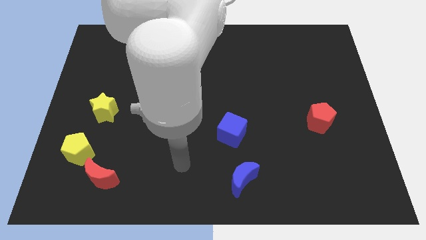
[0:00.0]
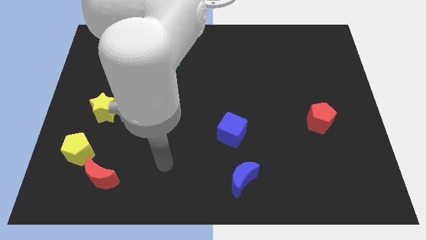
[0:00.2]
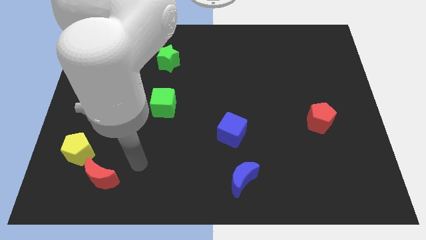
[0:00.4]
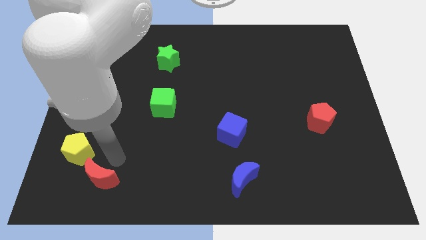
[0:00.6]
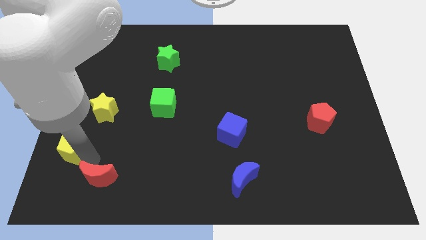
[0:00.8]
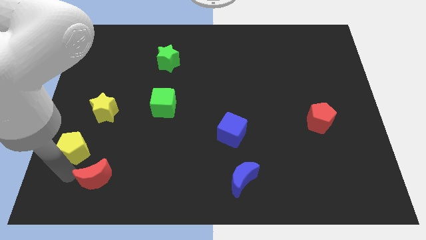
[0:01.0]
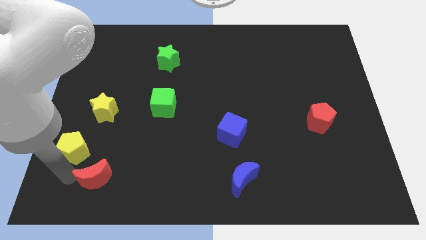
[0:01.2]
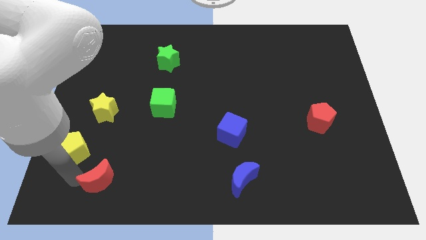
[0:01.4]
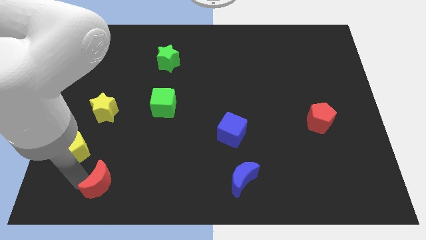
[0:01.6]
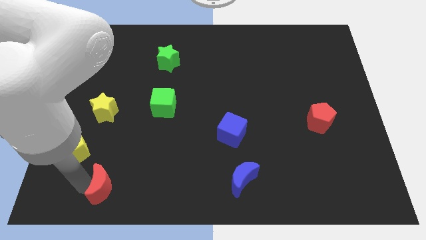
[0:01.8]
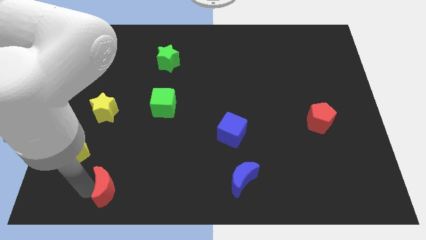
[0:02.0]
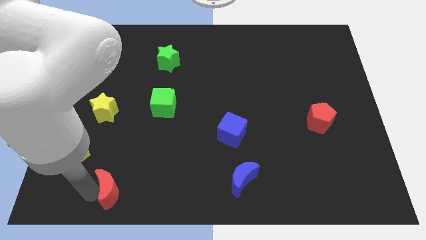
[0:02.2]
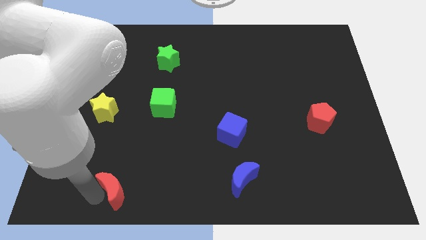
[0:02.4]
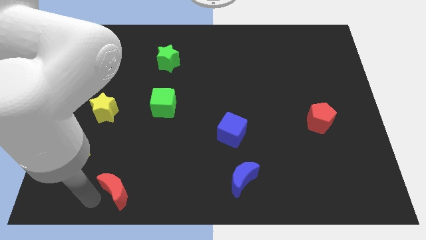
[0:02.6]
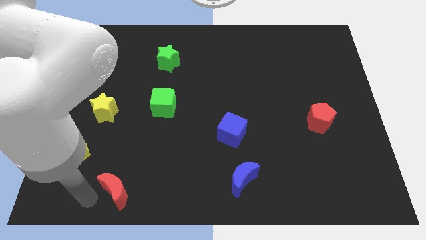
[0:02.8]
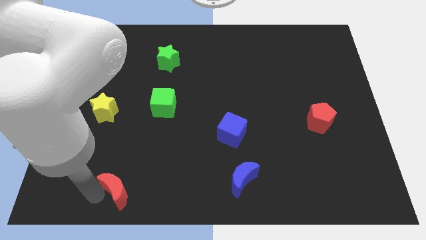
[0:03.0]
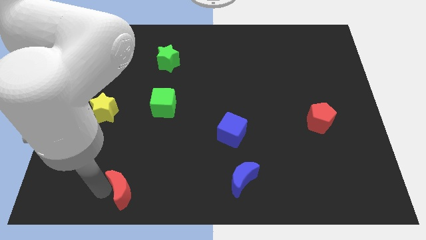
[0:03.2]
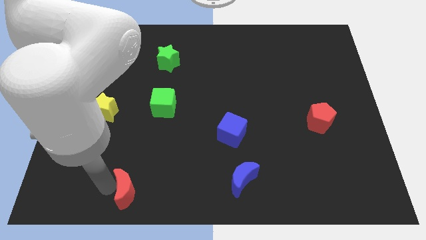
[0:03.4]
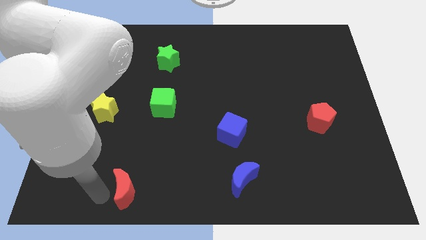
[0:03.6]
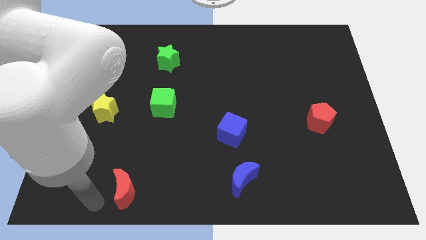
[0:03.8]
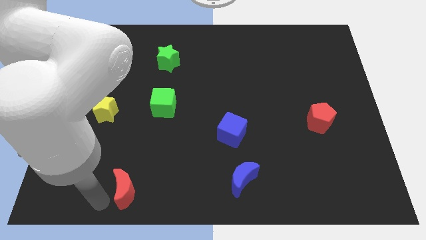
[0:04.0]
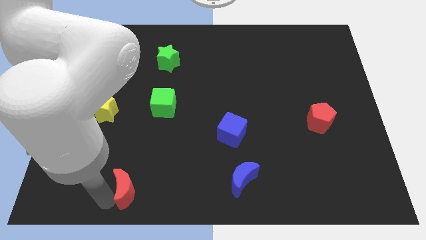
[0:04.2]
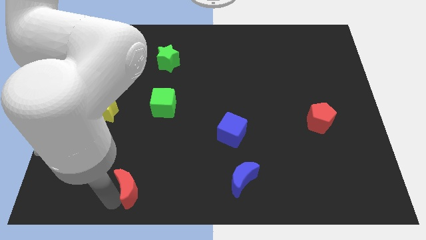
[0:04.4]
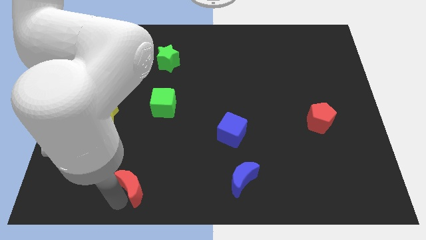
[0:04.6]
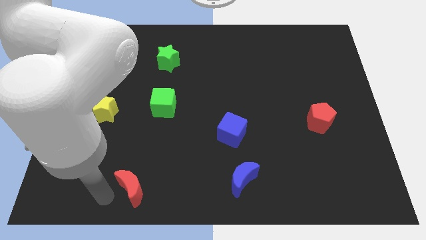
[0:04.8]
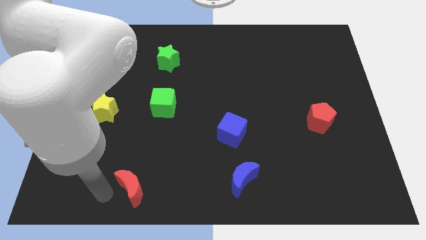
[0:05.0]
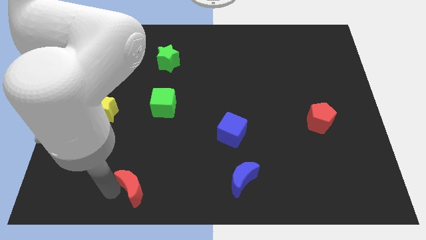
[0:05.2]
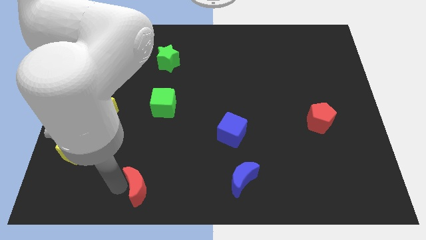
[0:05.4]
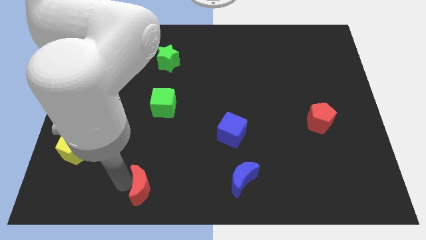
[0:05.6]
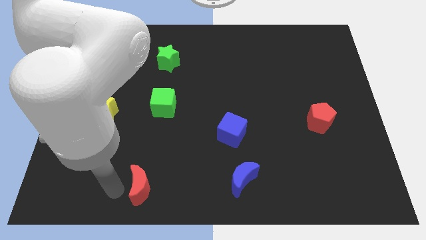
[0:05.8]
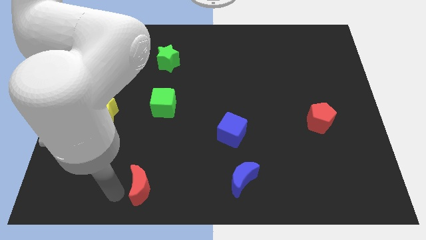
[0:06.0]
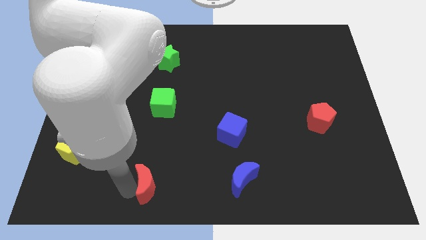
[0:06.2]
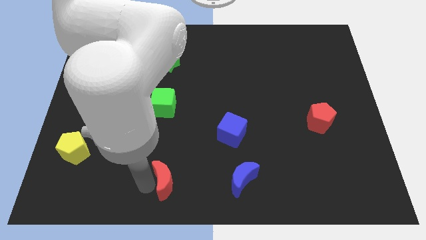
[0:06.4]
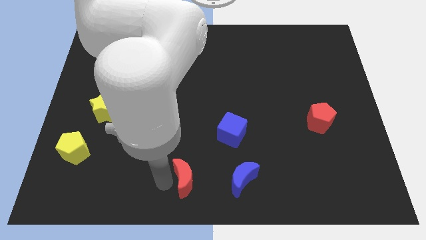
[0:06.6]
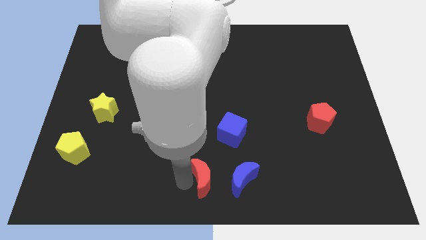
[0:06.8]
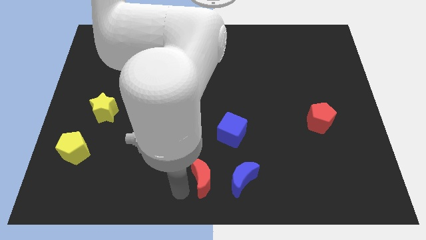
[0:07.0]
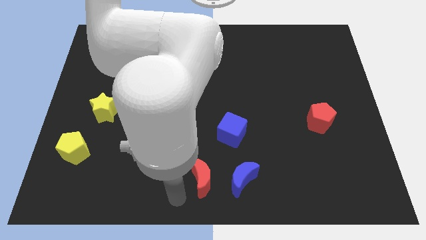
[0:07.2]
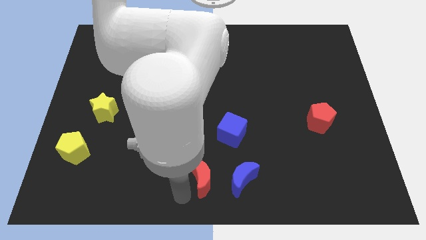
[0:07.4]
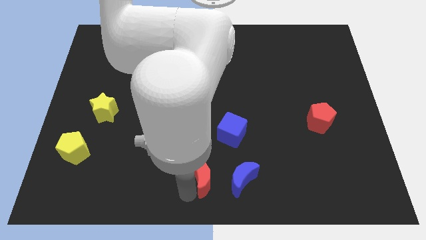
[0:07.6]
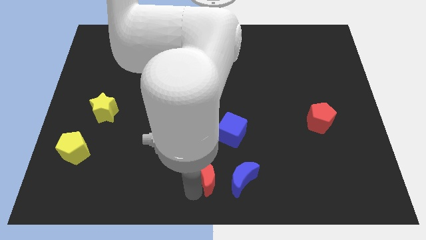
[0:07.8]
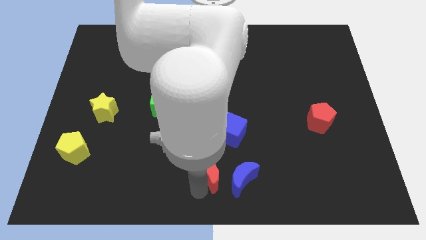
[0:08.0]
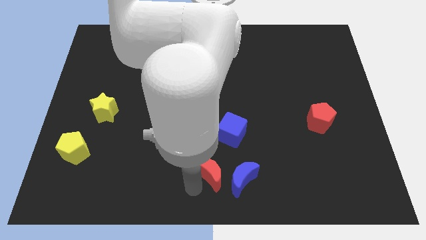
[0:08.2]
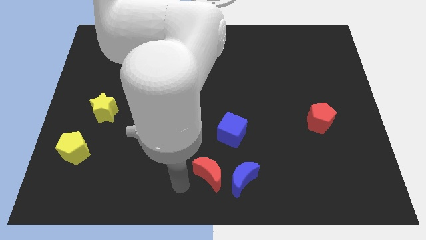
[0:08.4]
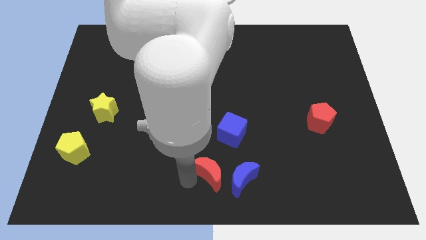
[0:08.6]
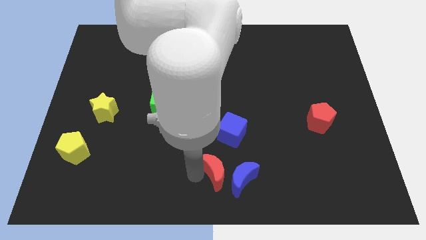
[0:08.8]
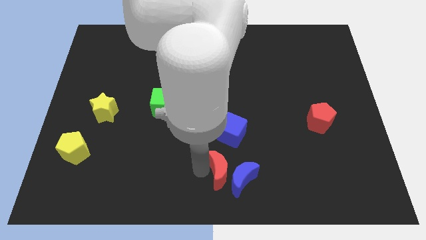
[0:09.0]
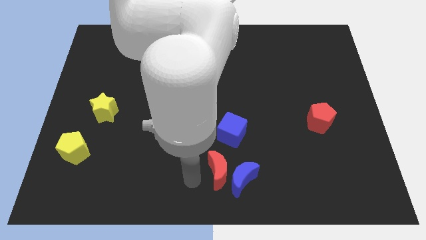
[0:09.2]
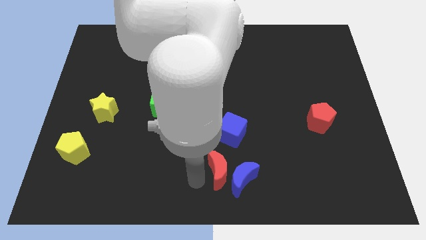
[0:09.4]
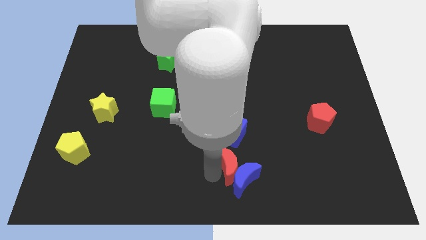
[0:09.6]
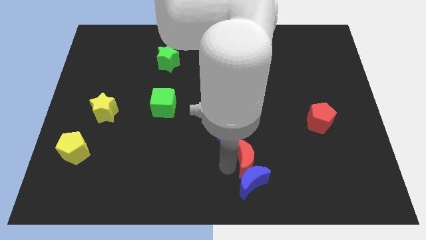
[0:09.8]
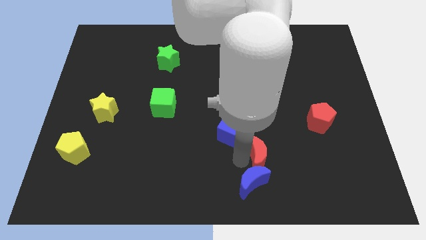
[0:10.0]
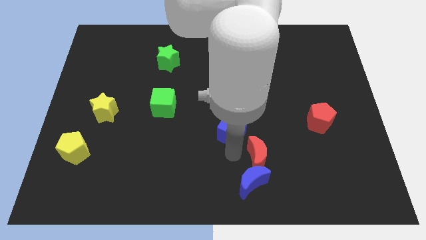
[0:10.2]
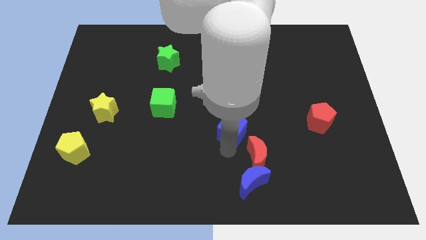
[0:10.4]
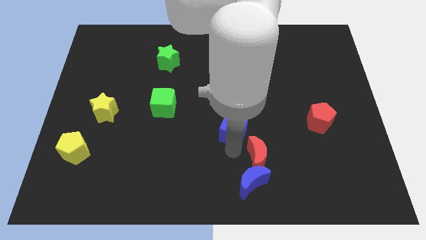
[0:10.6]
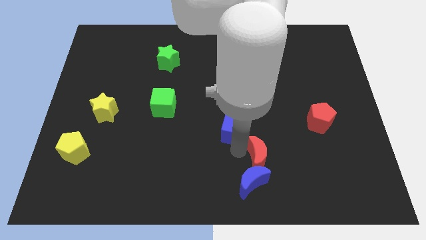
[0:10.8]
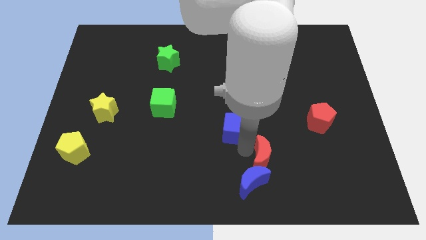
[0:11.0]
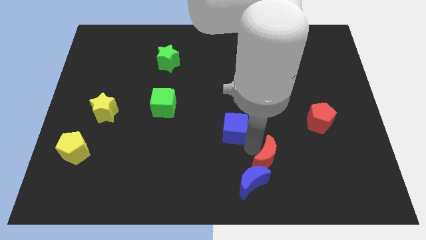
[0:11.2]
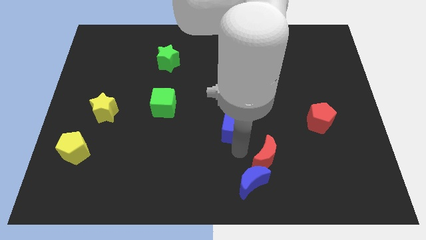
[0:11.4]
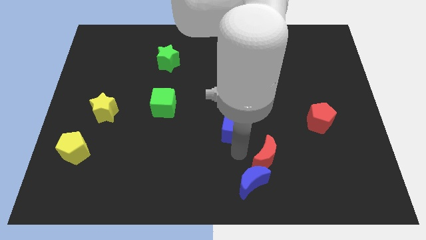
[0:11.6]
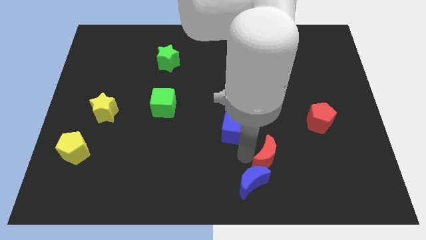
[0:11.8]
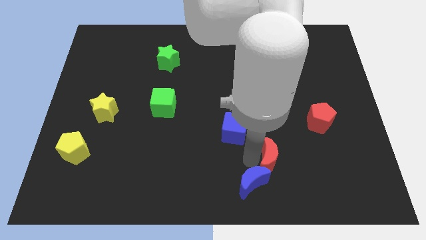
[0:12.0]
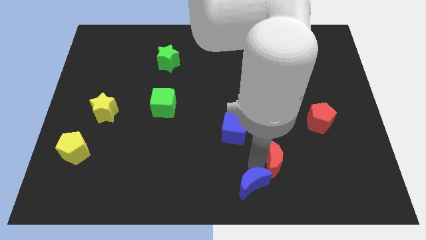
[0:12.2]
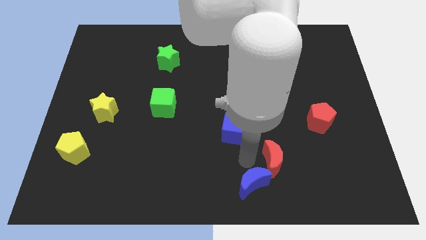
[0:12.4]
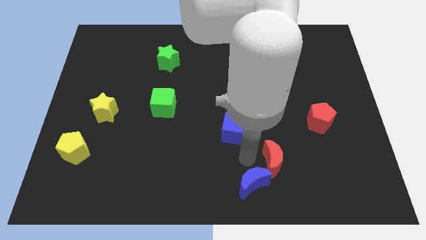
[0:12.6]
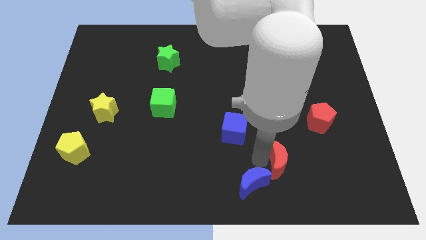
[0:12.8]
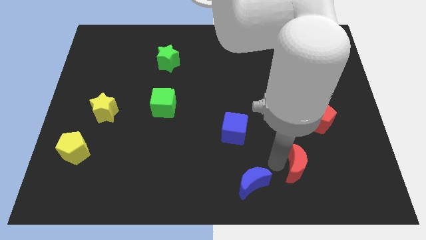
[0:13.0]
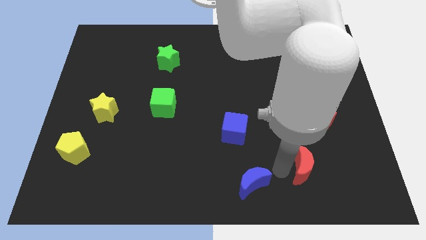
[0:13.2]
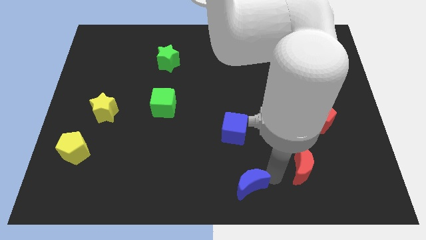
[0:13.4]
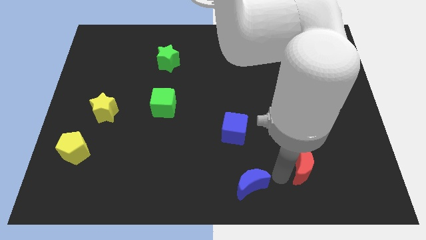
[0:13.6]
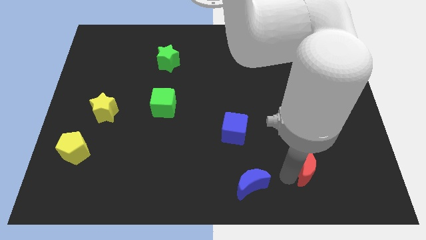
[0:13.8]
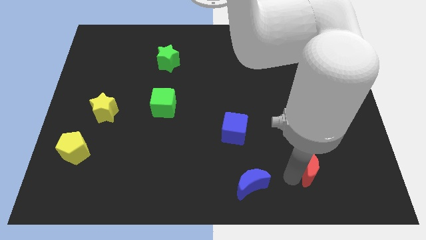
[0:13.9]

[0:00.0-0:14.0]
put the red moon below the red pentagon
